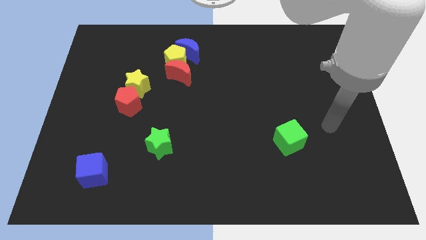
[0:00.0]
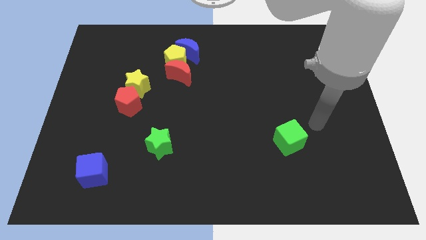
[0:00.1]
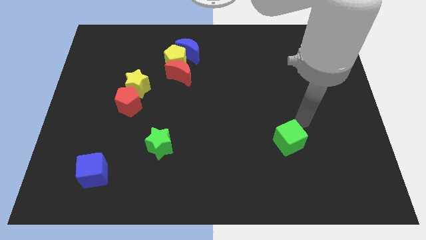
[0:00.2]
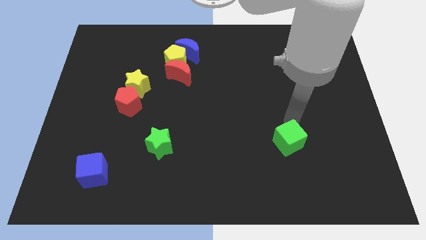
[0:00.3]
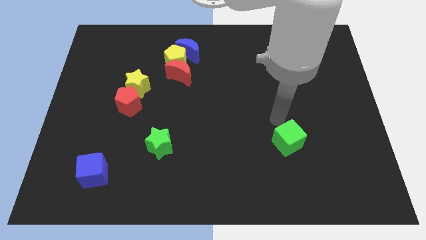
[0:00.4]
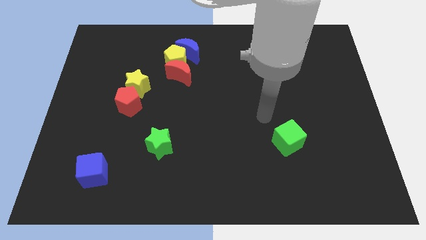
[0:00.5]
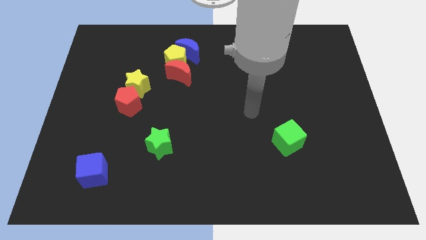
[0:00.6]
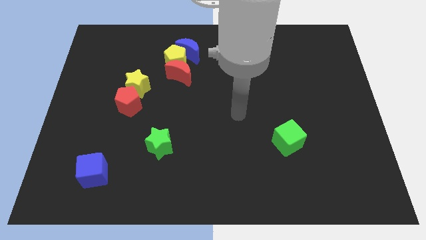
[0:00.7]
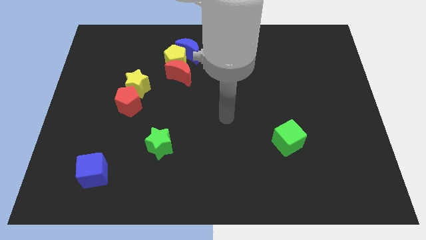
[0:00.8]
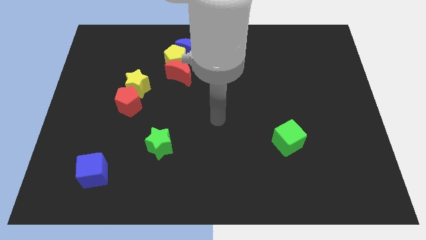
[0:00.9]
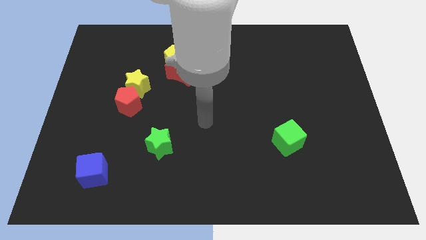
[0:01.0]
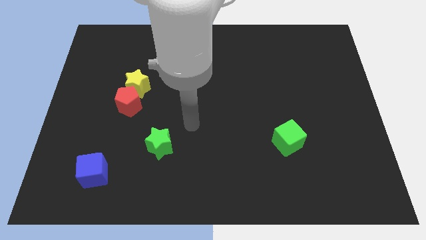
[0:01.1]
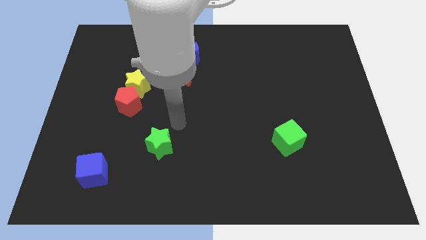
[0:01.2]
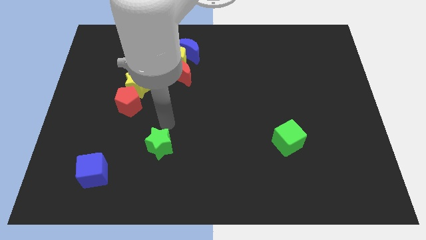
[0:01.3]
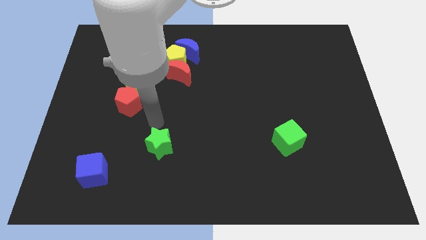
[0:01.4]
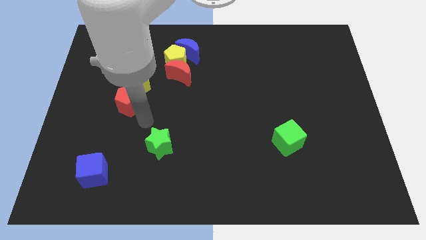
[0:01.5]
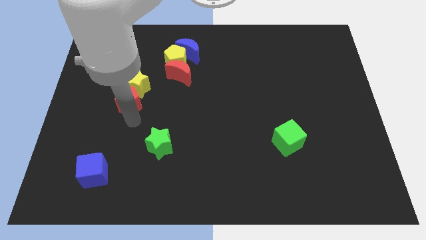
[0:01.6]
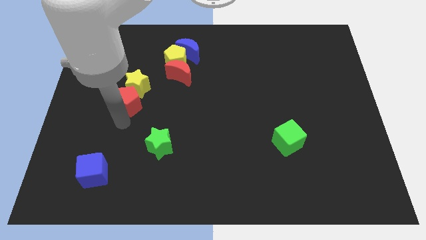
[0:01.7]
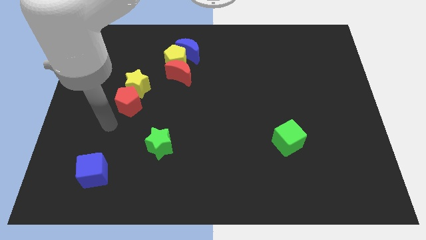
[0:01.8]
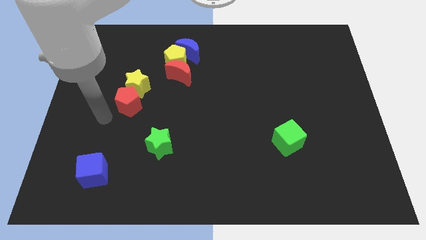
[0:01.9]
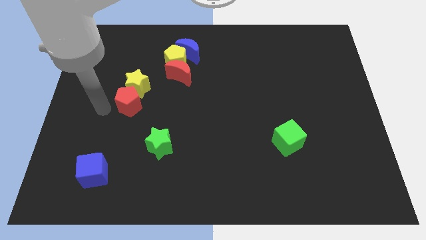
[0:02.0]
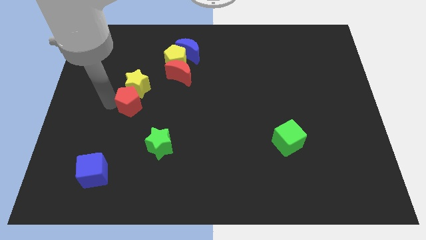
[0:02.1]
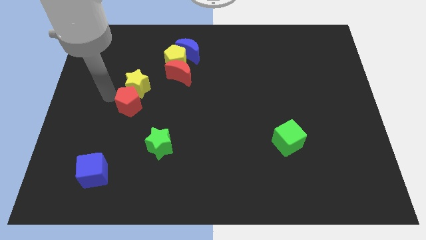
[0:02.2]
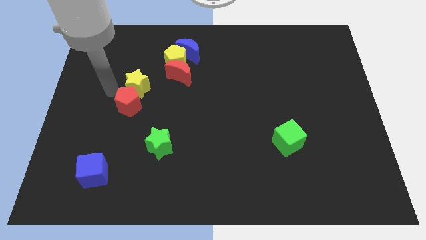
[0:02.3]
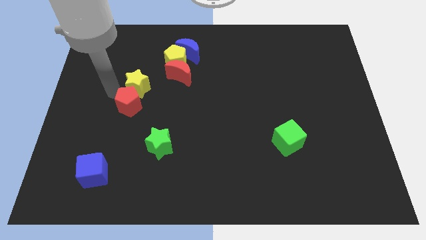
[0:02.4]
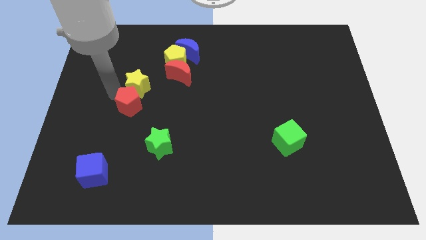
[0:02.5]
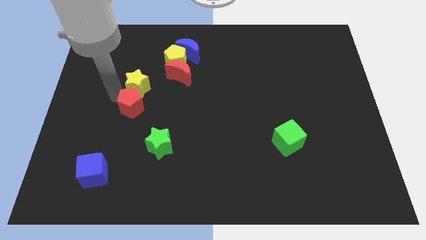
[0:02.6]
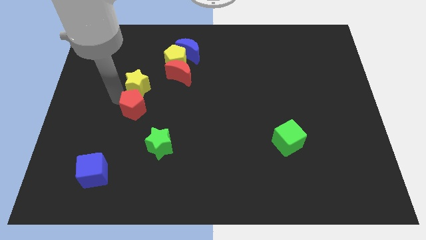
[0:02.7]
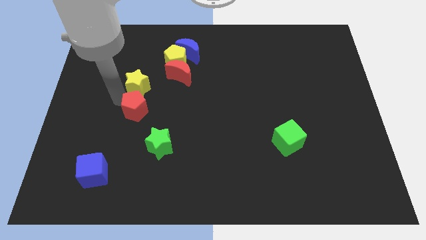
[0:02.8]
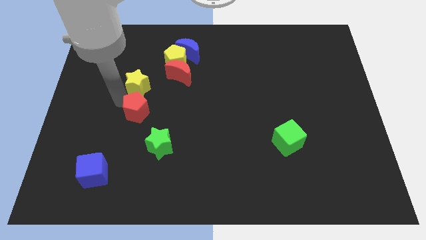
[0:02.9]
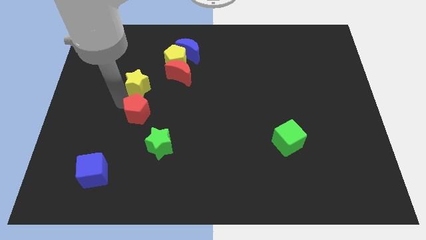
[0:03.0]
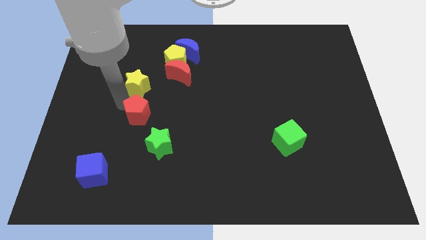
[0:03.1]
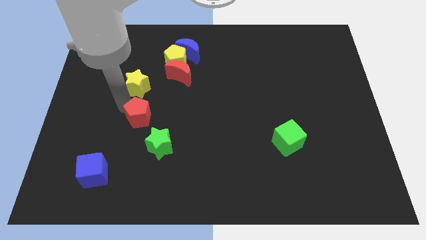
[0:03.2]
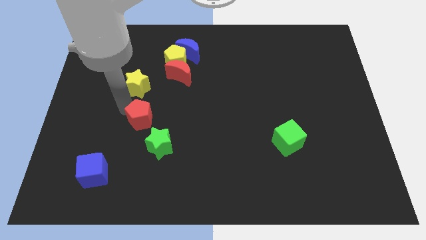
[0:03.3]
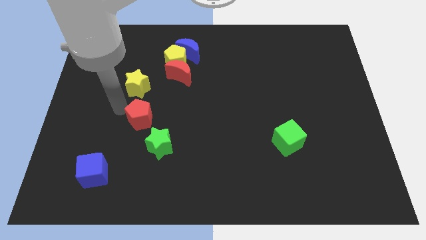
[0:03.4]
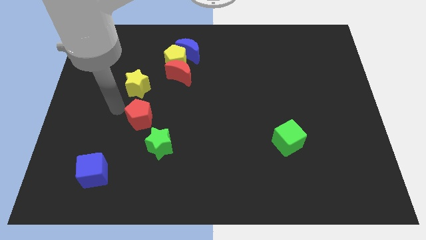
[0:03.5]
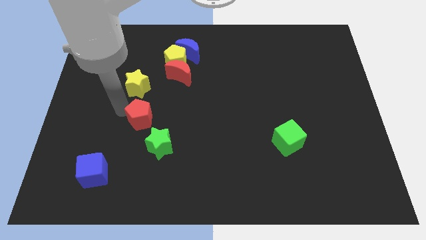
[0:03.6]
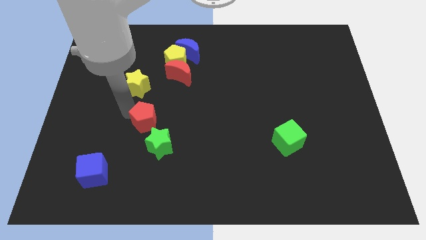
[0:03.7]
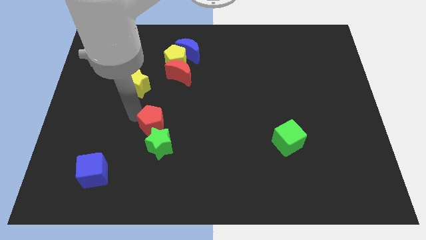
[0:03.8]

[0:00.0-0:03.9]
slightly slide the red pentagon down and then to the right

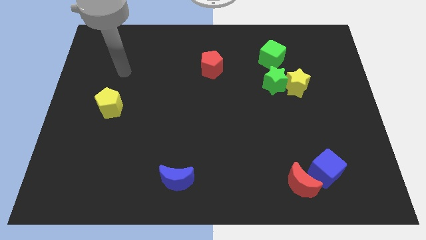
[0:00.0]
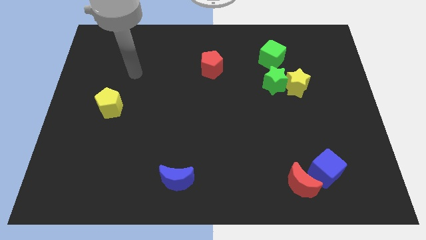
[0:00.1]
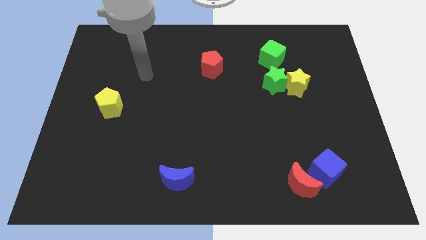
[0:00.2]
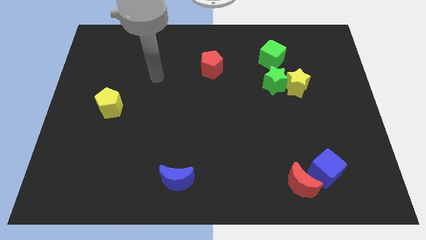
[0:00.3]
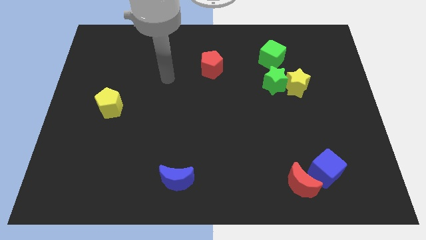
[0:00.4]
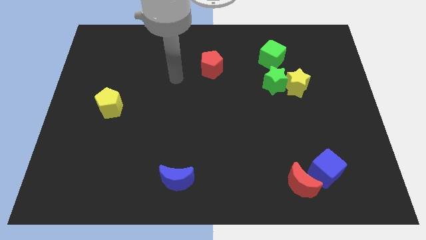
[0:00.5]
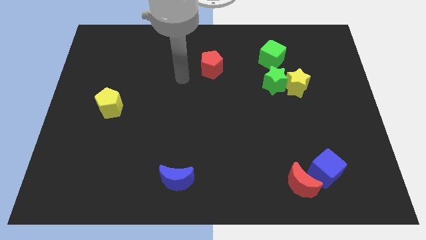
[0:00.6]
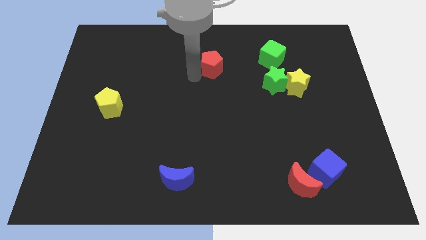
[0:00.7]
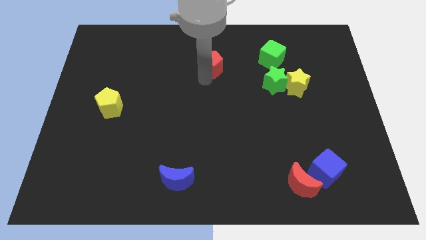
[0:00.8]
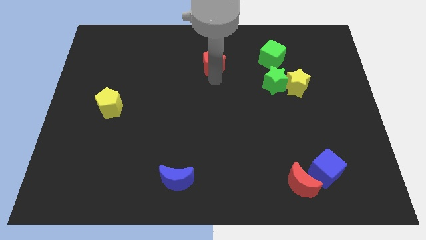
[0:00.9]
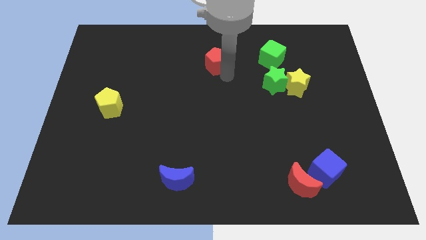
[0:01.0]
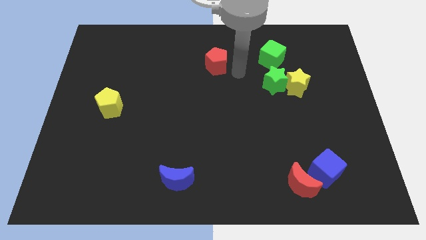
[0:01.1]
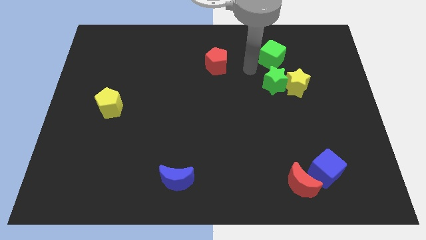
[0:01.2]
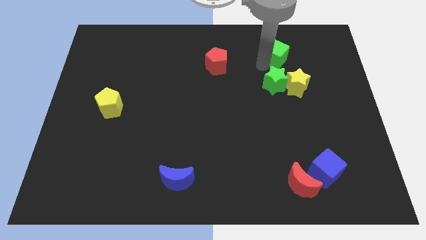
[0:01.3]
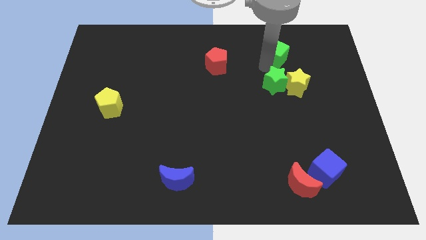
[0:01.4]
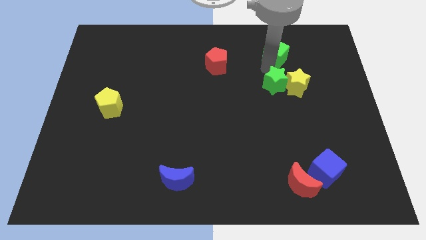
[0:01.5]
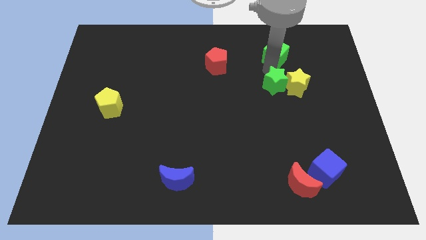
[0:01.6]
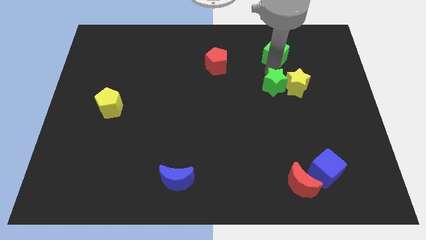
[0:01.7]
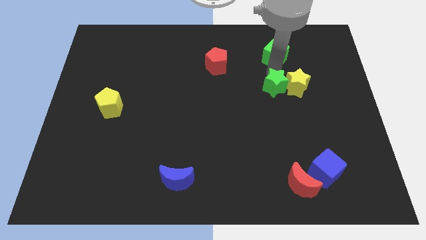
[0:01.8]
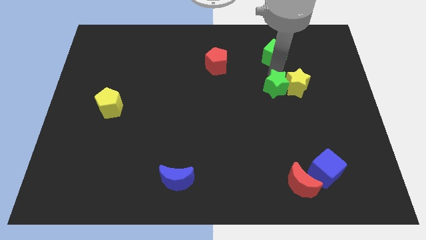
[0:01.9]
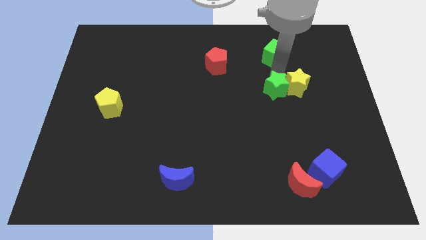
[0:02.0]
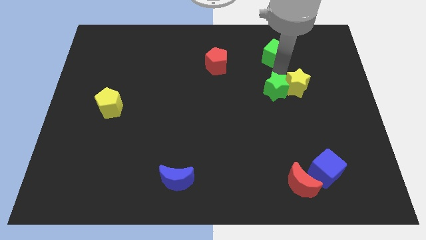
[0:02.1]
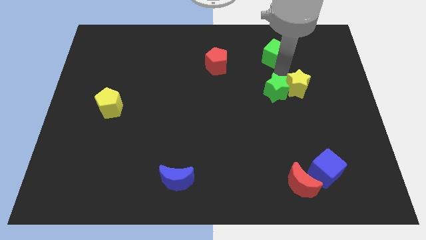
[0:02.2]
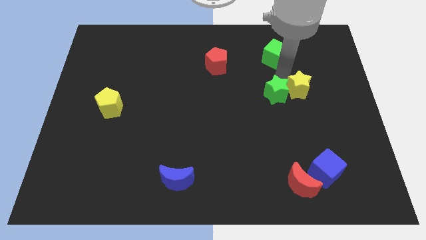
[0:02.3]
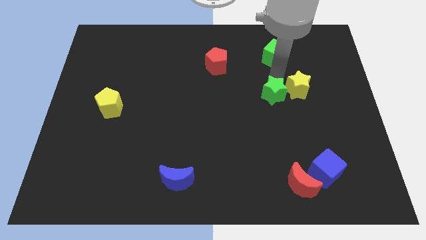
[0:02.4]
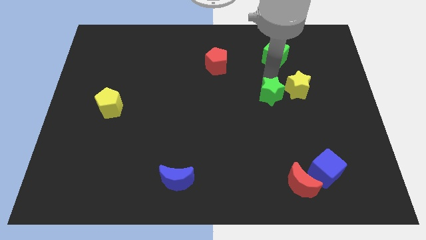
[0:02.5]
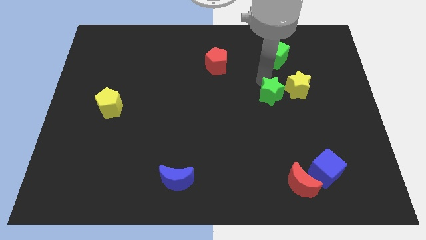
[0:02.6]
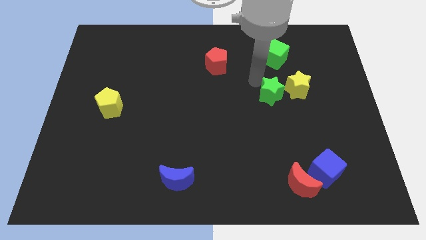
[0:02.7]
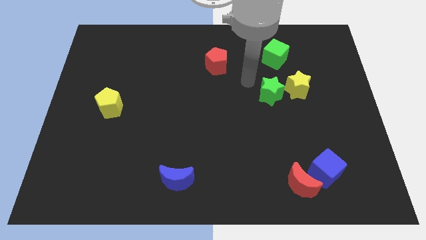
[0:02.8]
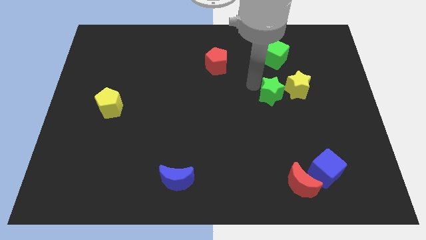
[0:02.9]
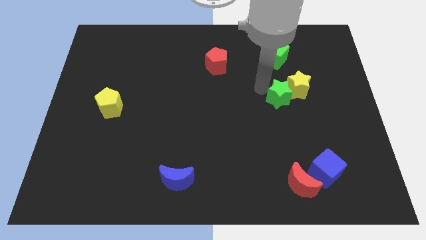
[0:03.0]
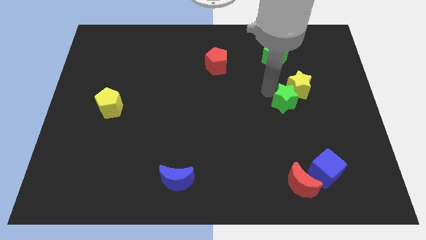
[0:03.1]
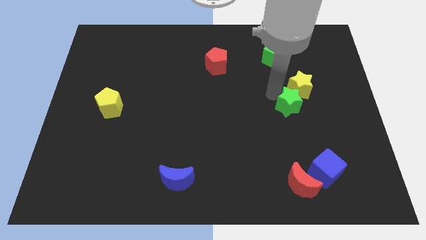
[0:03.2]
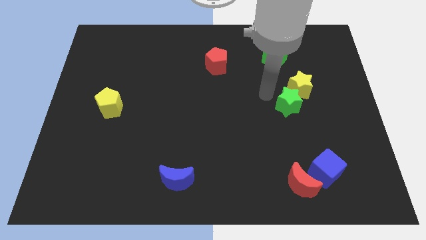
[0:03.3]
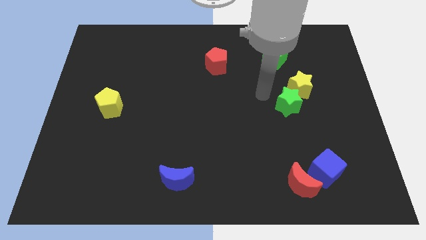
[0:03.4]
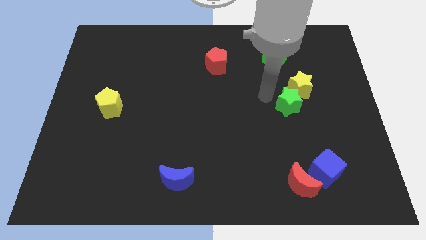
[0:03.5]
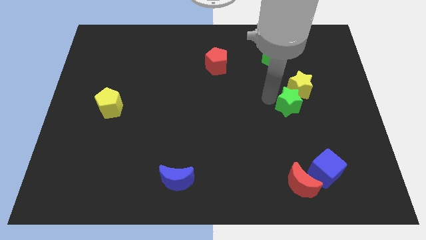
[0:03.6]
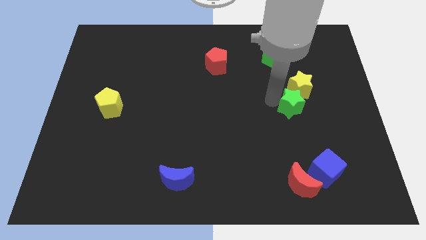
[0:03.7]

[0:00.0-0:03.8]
slightly move the green star down and then right
